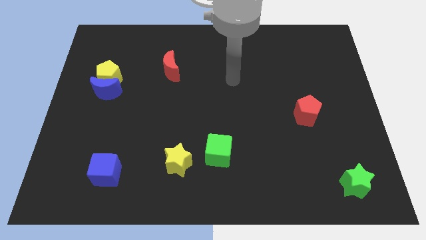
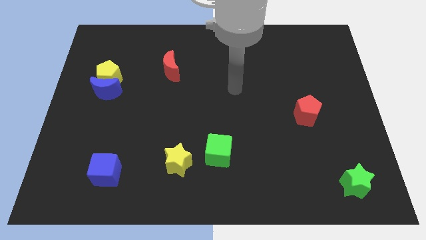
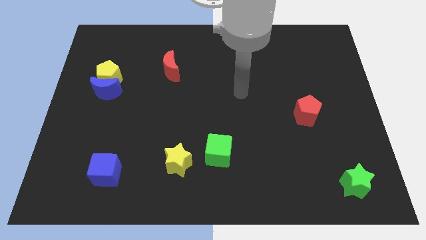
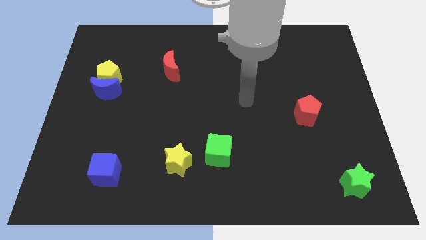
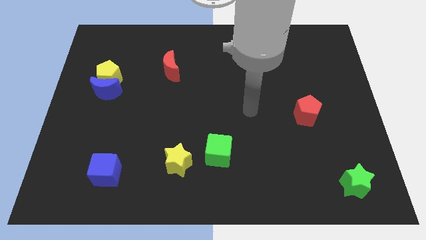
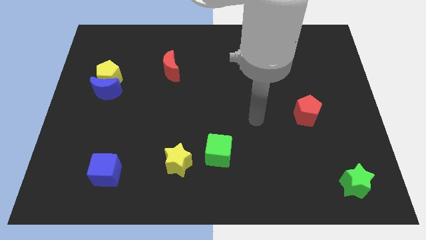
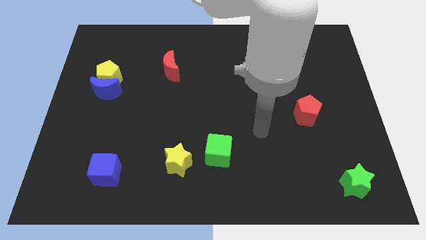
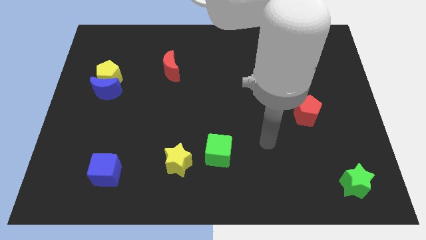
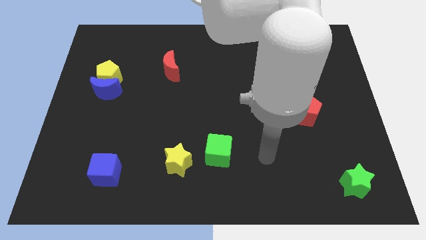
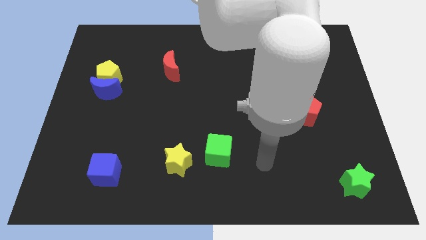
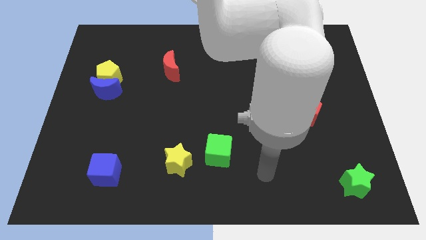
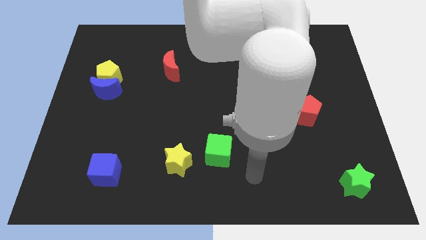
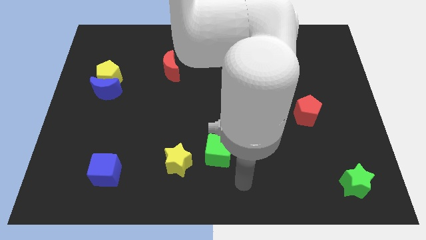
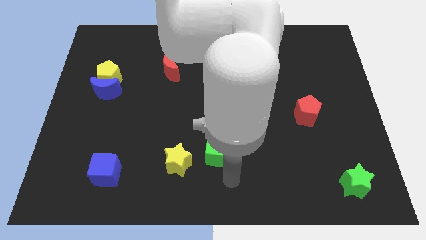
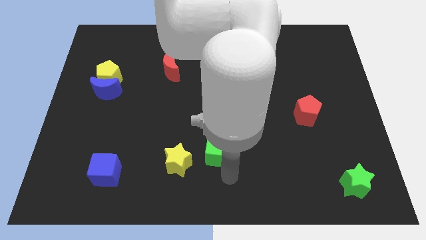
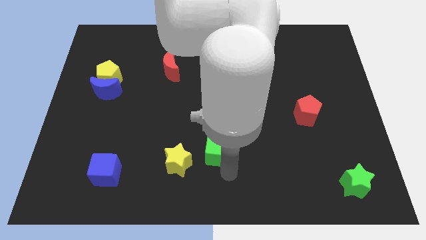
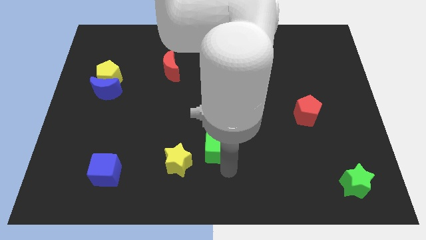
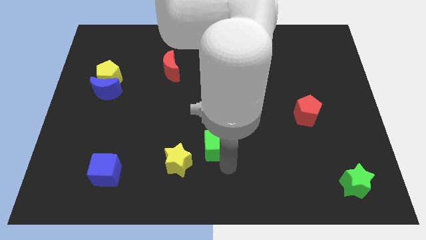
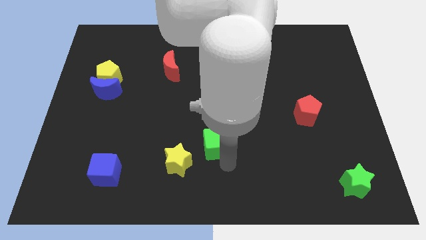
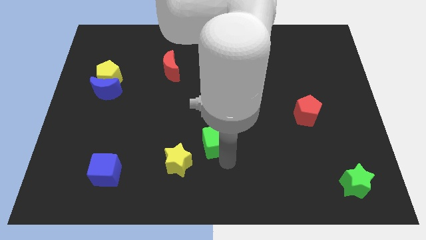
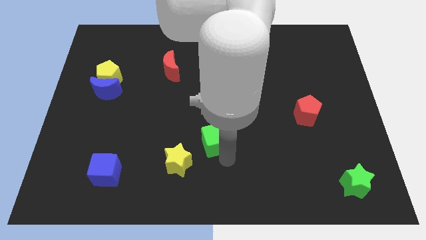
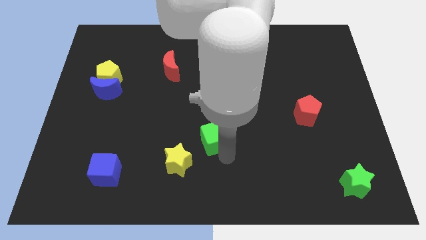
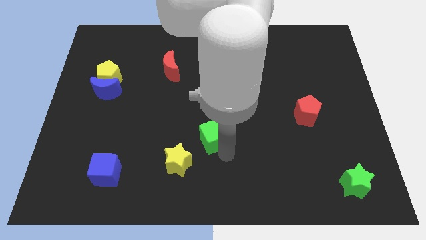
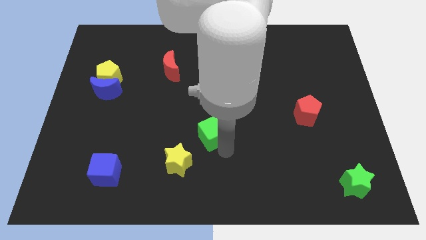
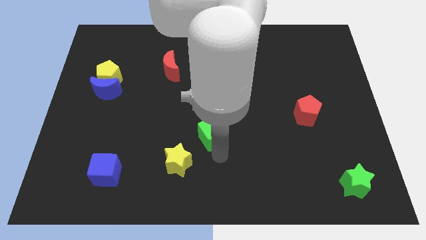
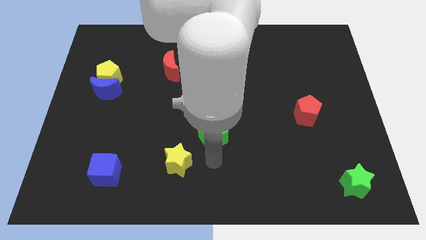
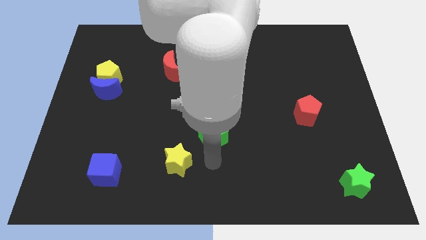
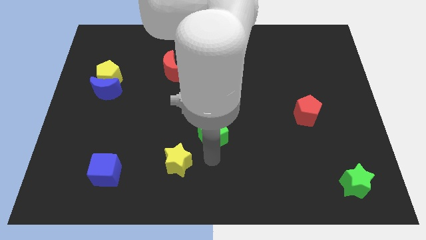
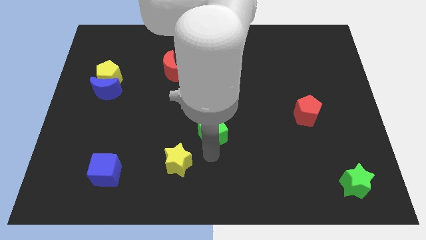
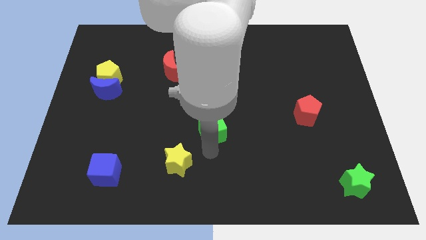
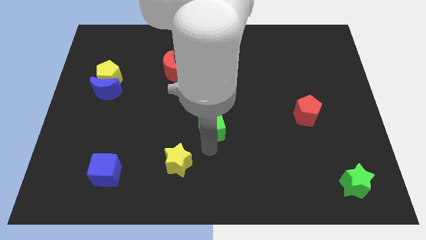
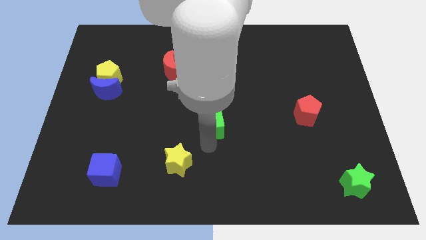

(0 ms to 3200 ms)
push the green cube upwards a little bit

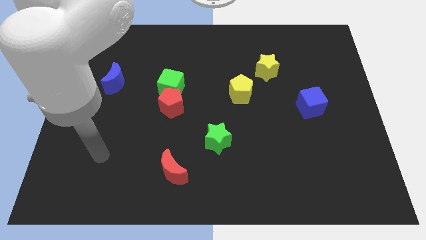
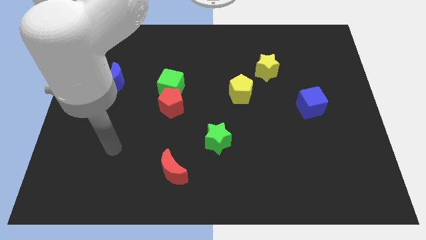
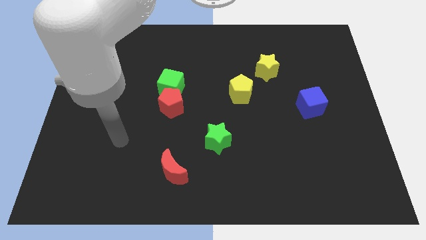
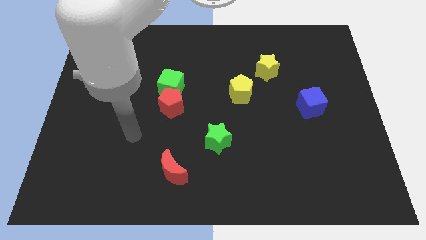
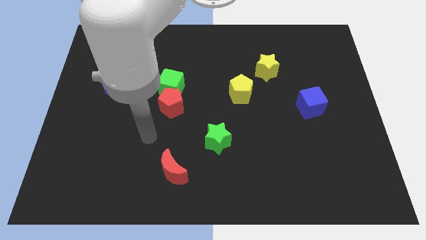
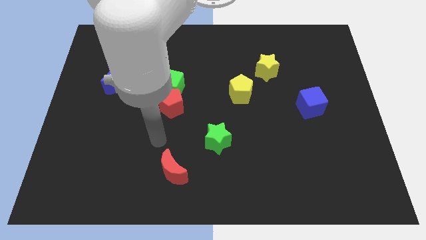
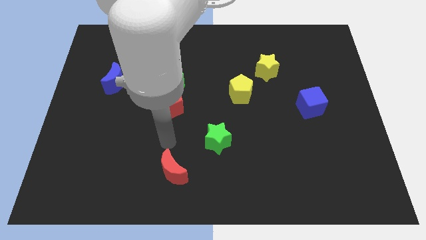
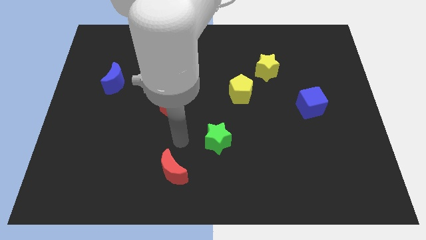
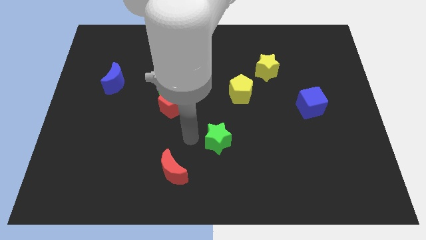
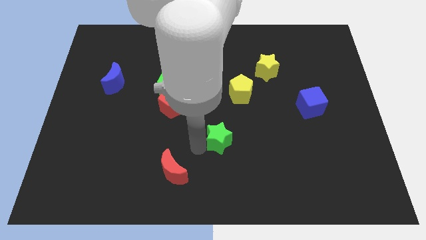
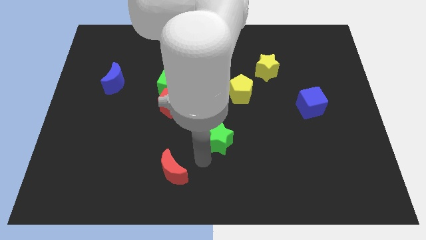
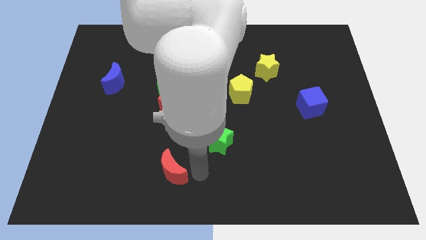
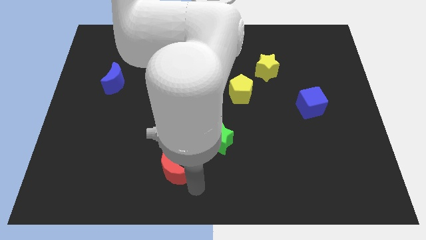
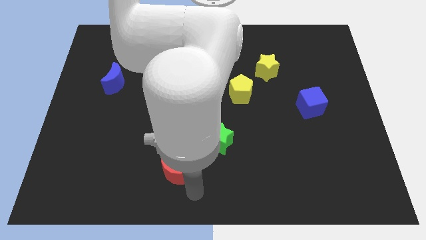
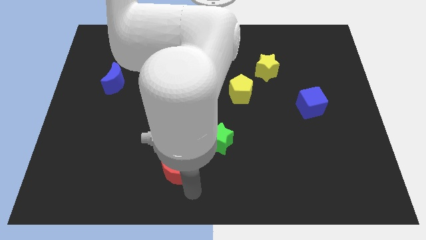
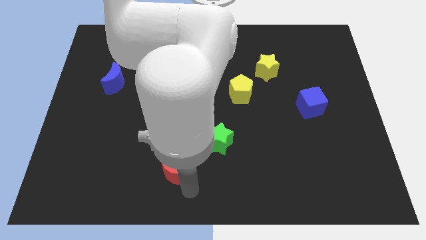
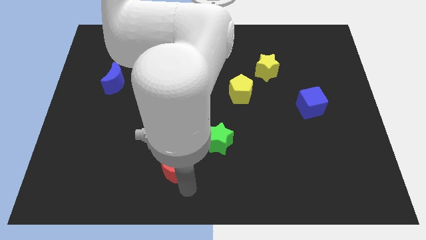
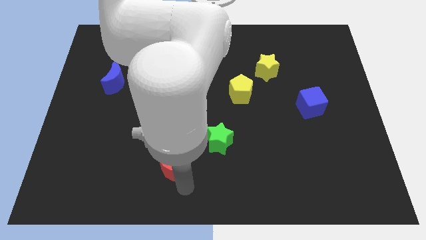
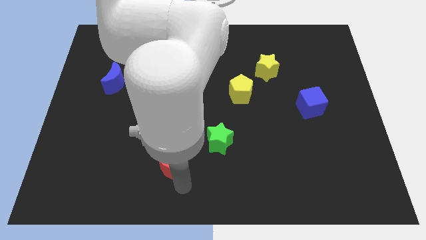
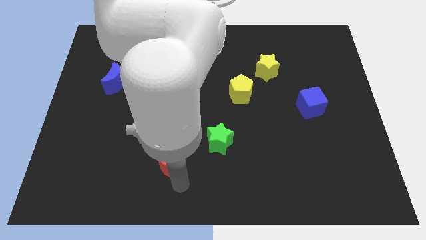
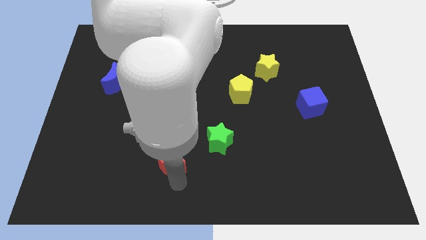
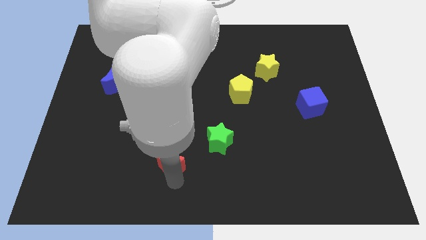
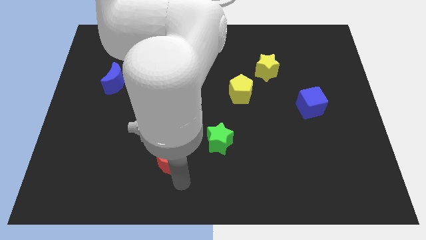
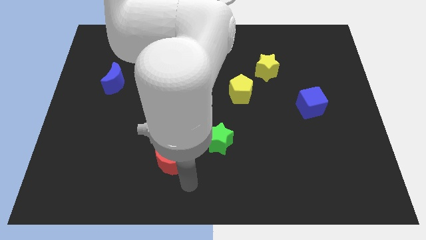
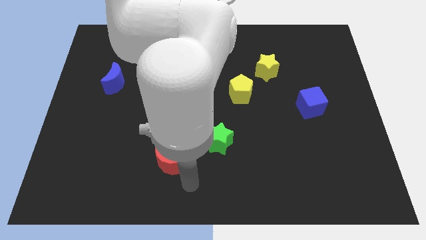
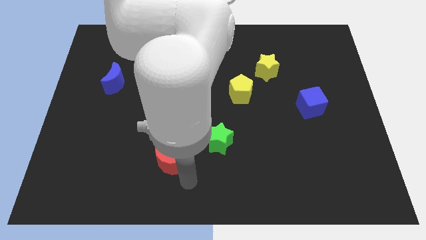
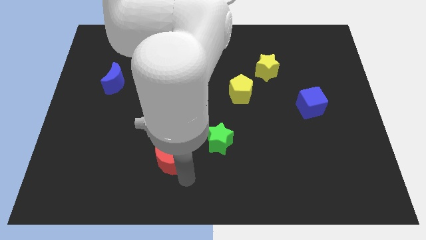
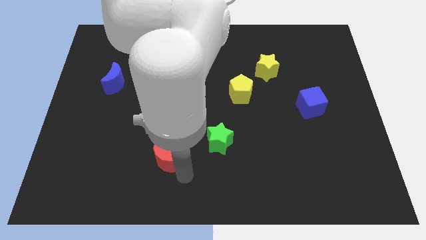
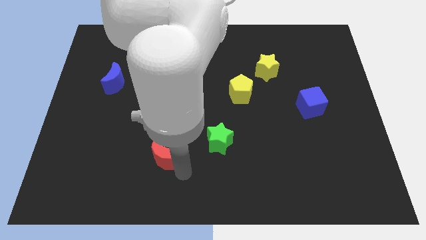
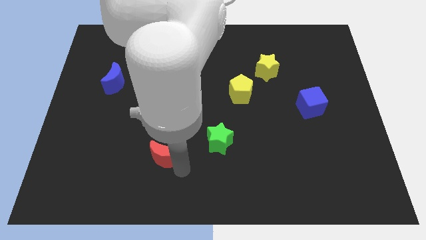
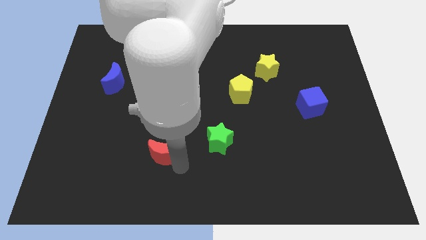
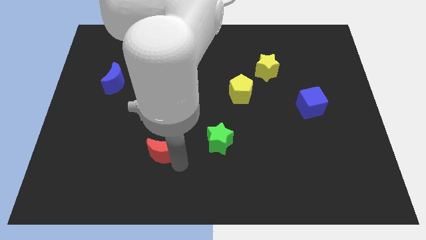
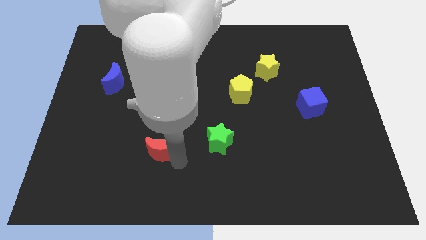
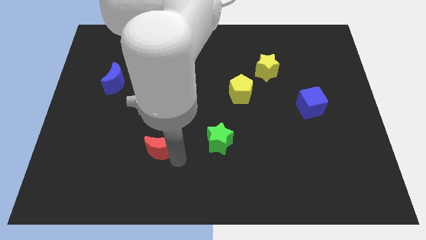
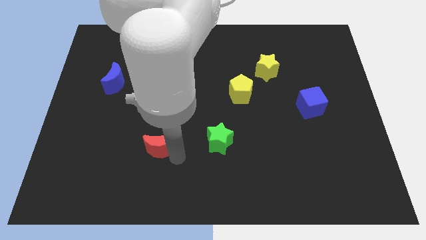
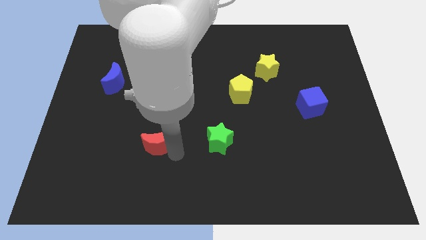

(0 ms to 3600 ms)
slightly slide the red moon diagonally up and to the left

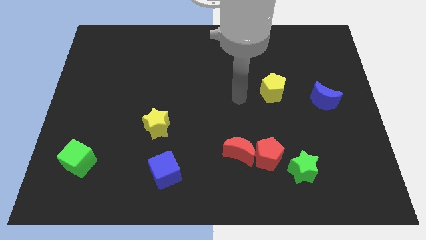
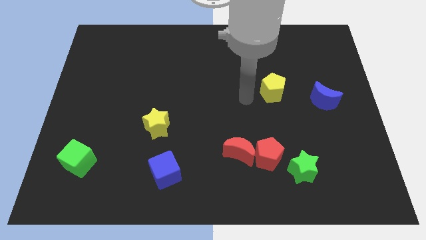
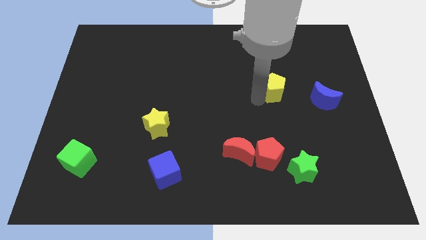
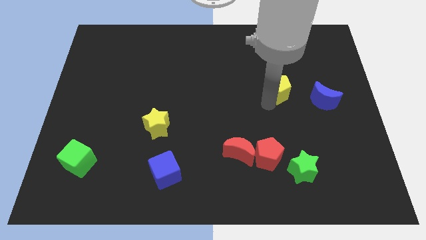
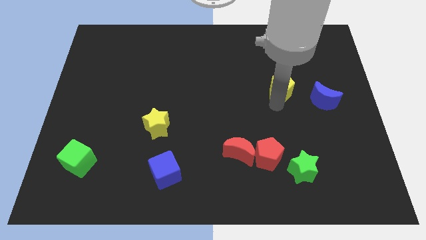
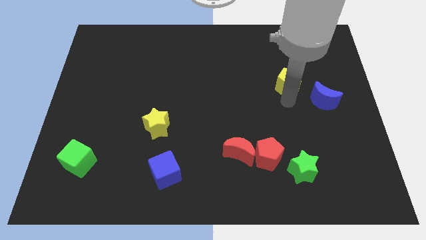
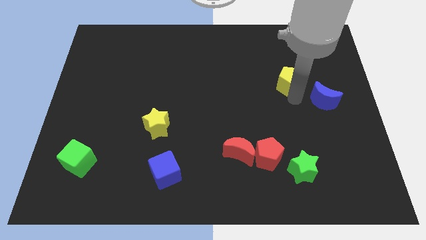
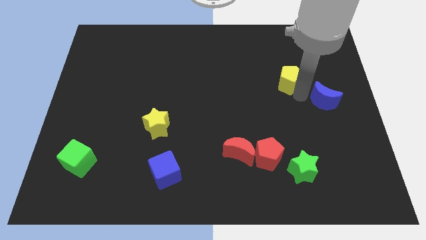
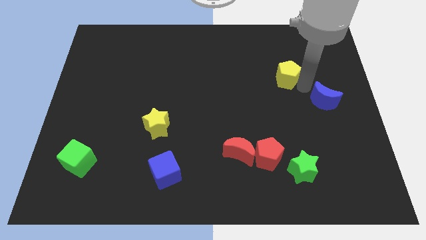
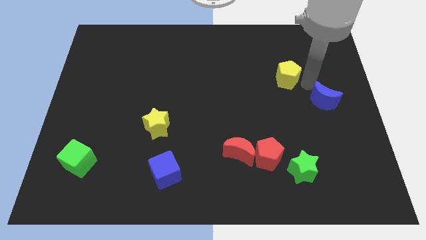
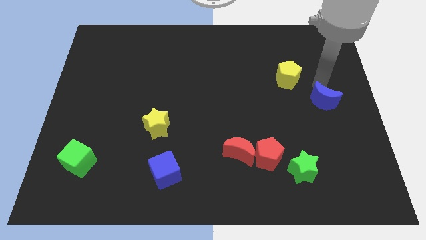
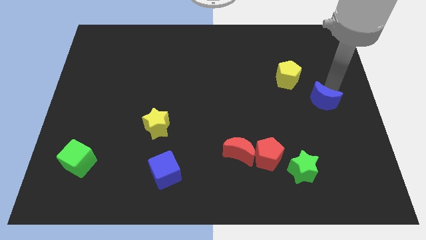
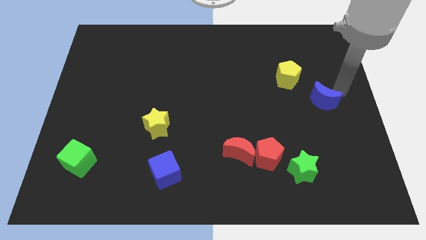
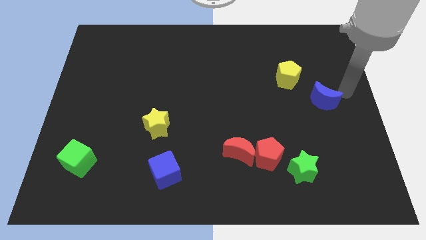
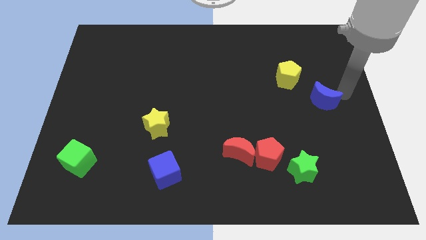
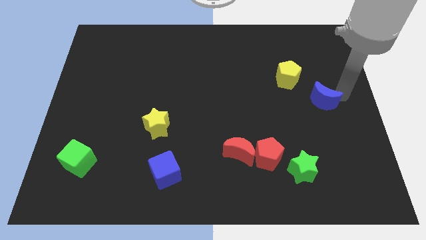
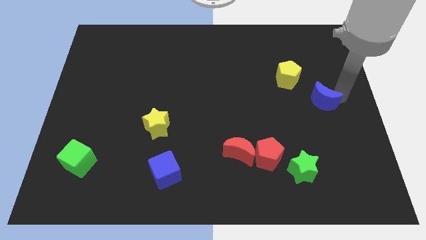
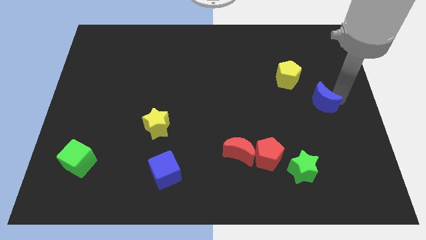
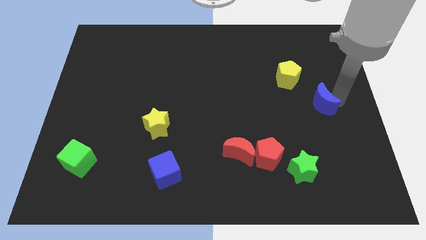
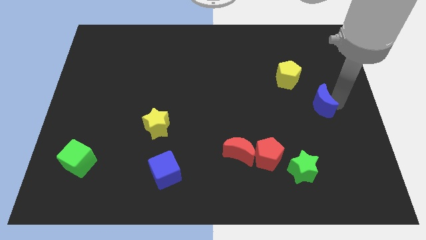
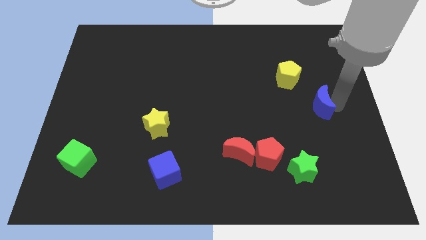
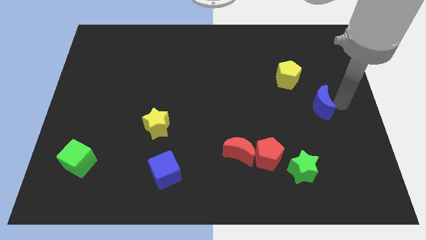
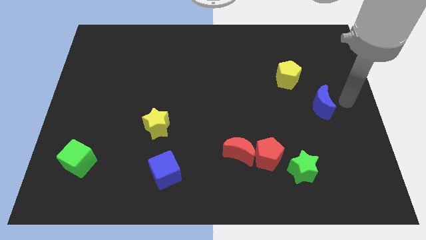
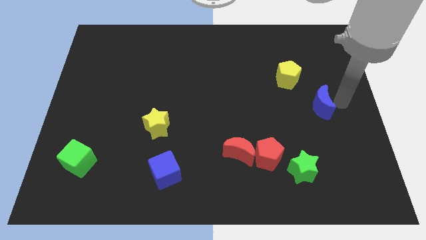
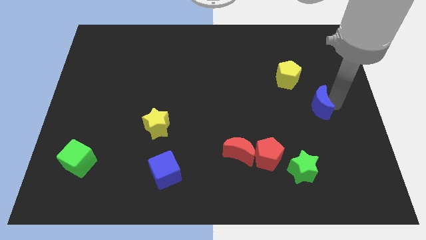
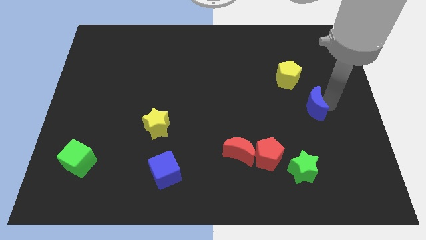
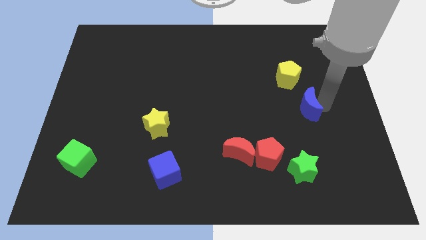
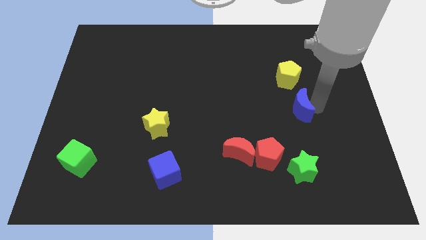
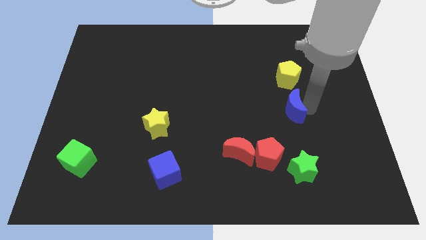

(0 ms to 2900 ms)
slightly push the blue moon to the left
